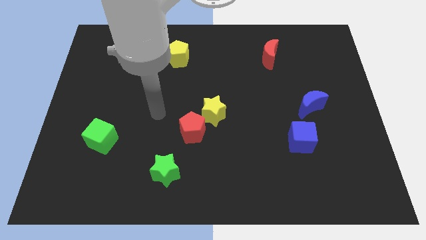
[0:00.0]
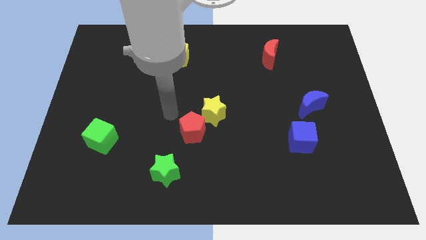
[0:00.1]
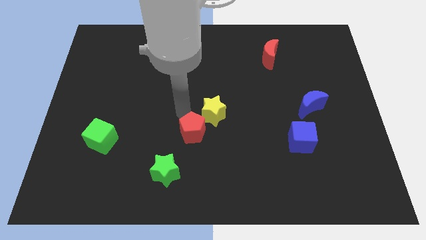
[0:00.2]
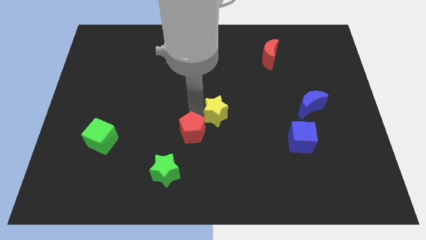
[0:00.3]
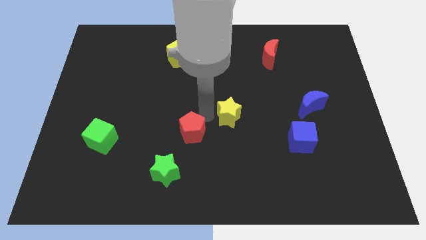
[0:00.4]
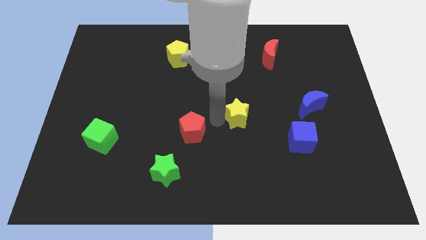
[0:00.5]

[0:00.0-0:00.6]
move the red pentagon away from the yellow star

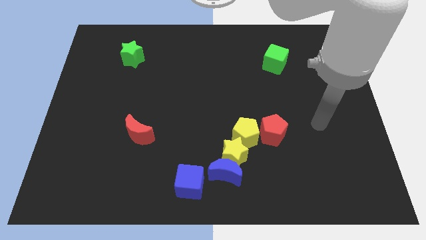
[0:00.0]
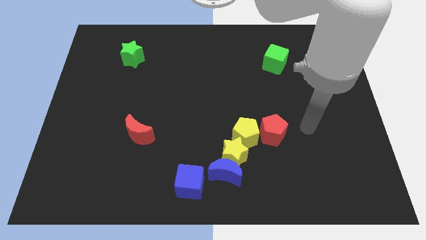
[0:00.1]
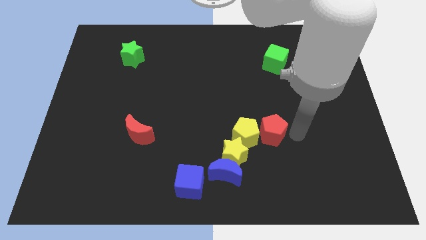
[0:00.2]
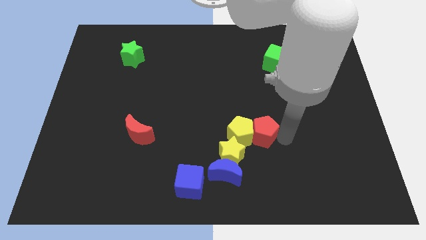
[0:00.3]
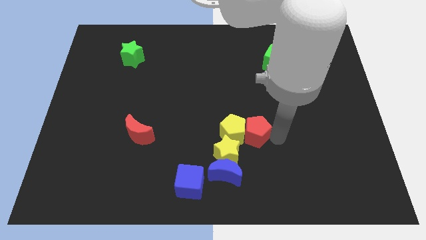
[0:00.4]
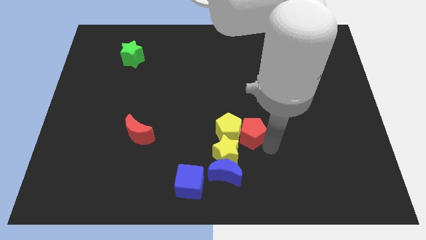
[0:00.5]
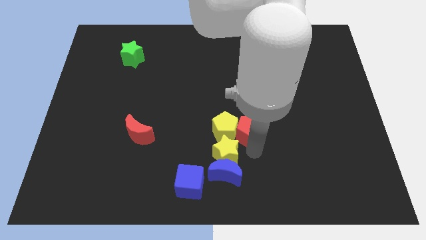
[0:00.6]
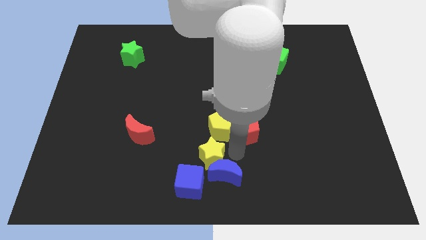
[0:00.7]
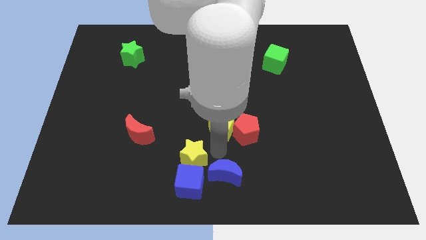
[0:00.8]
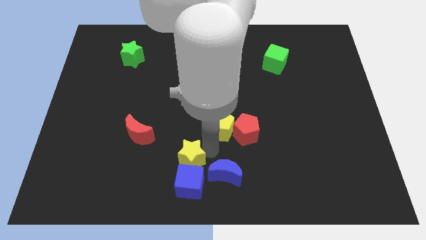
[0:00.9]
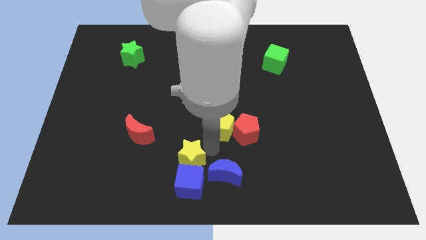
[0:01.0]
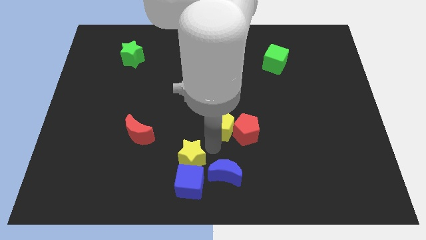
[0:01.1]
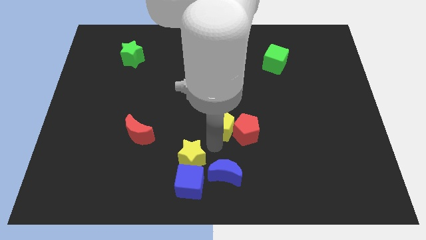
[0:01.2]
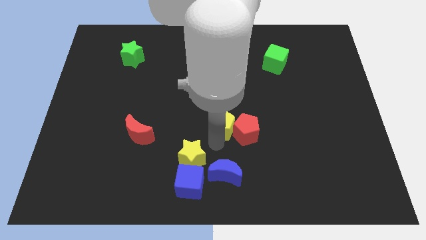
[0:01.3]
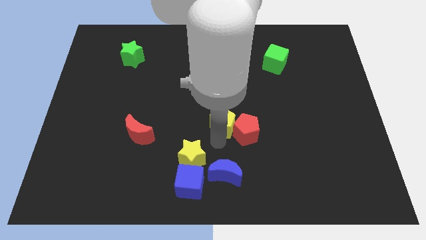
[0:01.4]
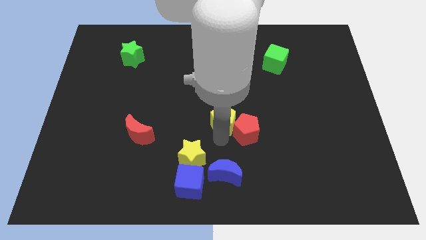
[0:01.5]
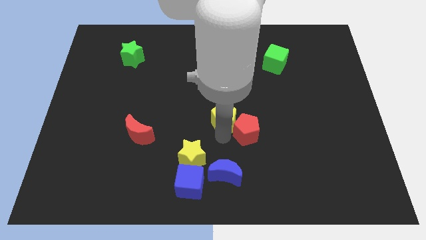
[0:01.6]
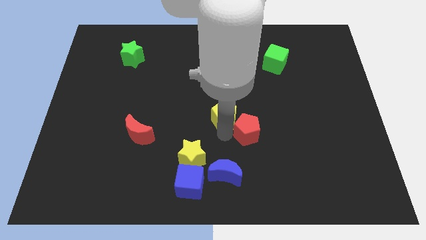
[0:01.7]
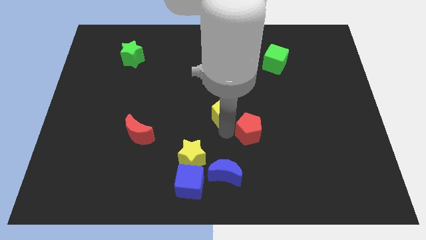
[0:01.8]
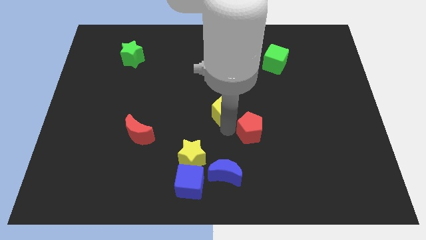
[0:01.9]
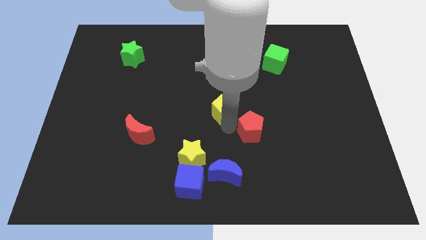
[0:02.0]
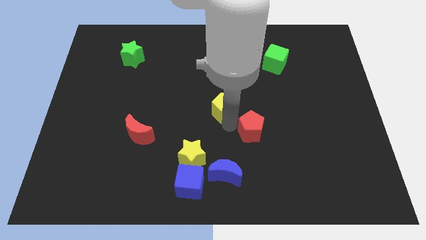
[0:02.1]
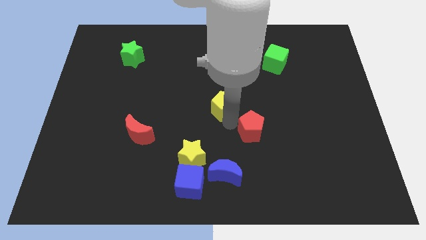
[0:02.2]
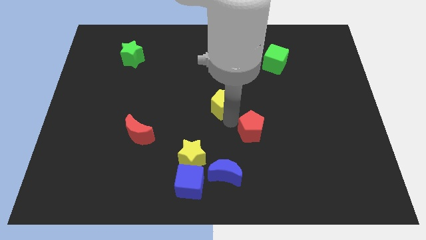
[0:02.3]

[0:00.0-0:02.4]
pull the yellow pentagon apart from the yellow star and red pentagon

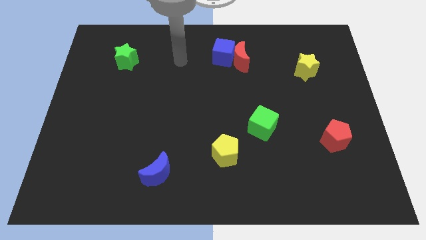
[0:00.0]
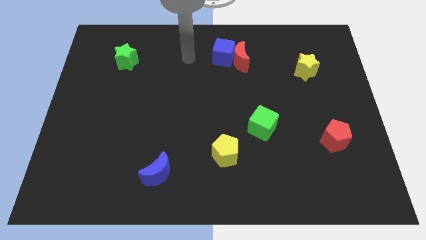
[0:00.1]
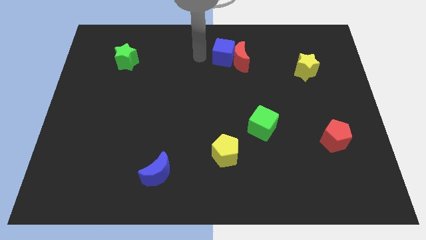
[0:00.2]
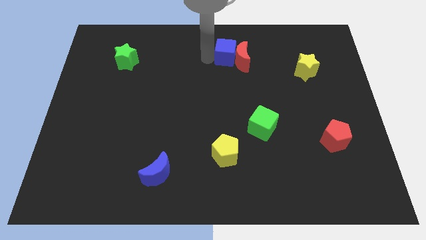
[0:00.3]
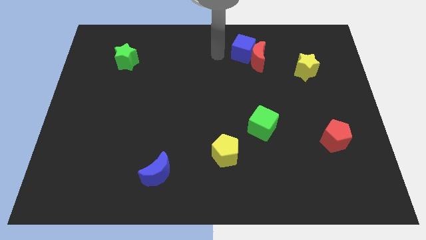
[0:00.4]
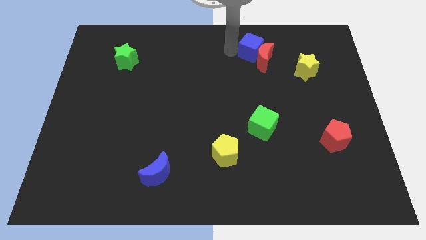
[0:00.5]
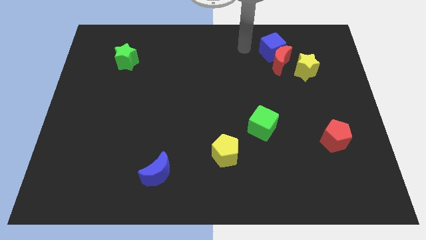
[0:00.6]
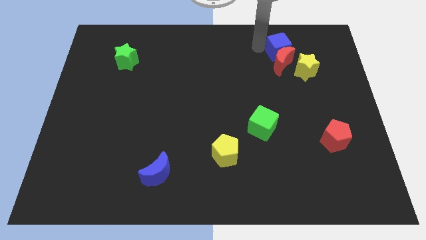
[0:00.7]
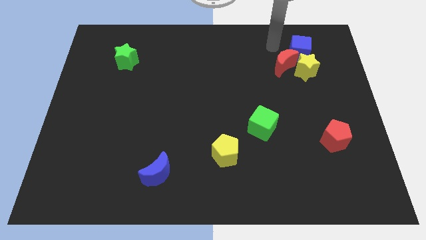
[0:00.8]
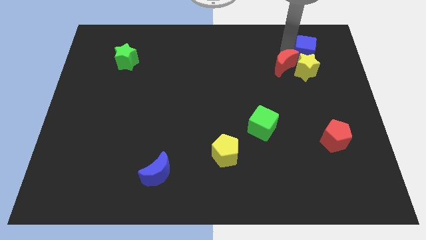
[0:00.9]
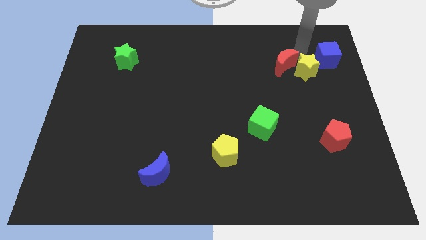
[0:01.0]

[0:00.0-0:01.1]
pull the red moon apart from the blue cube

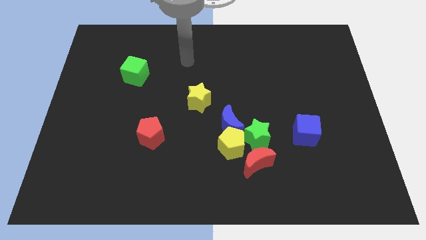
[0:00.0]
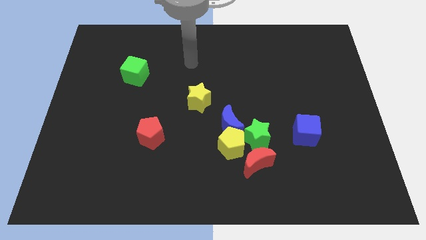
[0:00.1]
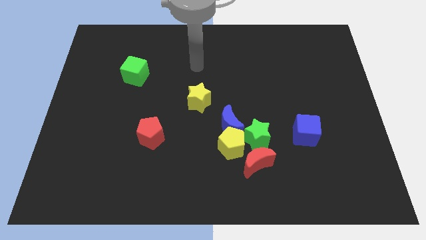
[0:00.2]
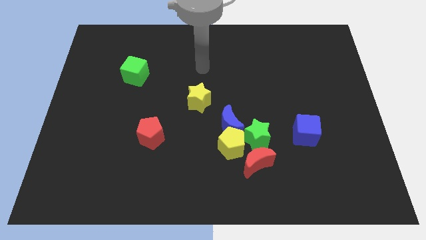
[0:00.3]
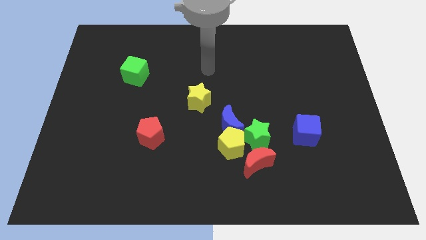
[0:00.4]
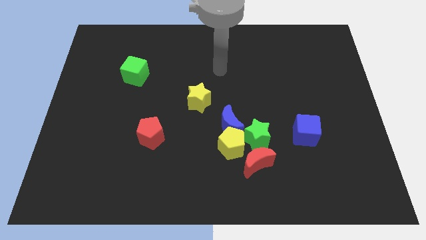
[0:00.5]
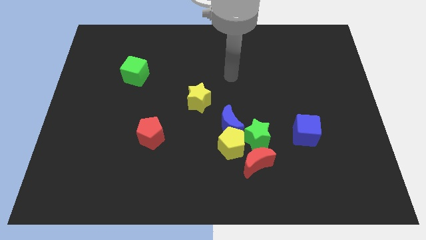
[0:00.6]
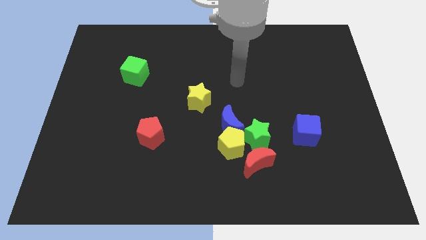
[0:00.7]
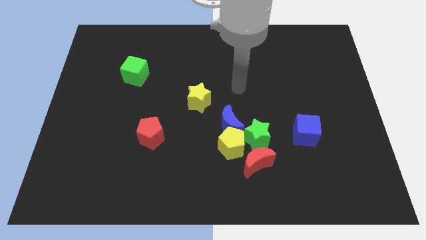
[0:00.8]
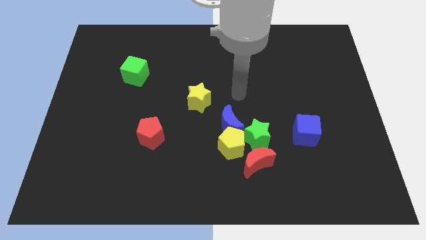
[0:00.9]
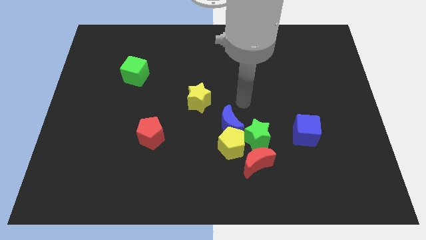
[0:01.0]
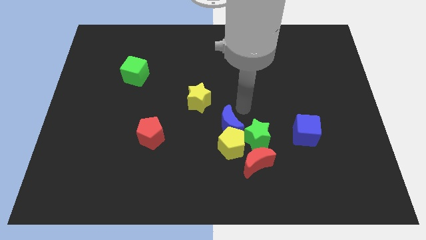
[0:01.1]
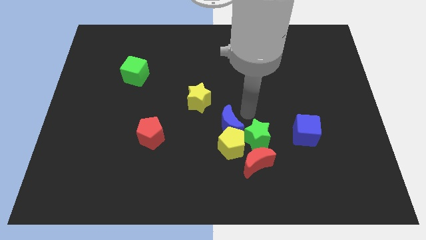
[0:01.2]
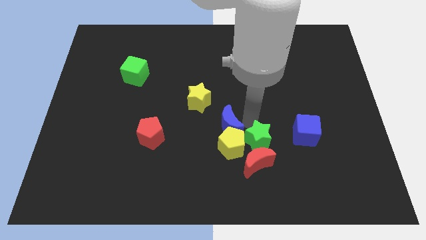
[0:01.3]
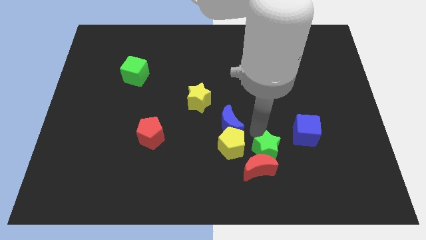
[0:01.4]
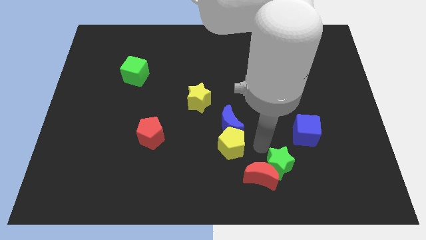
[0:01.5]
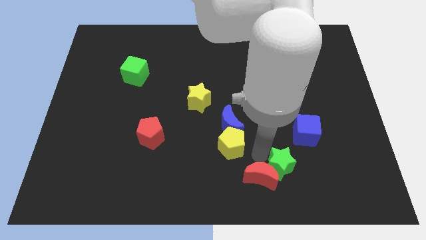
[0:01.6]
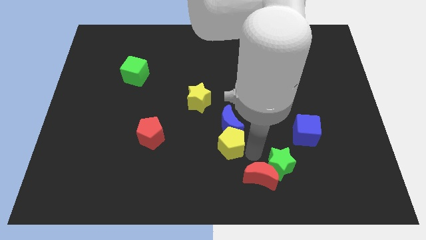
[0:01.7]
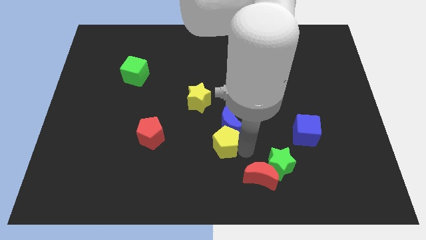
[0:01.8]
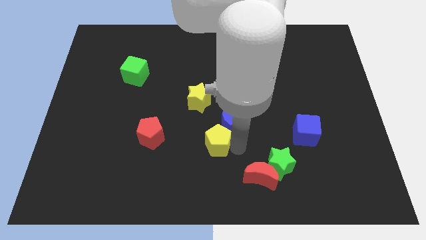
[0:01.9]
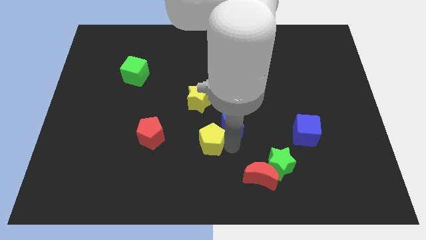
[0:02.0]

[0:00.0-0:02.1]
move the yellow pentagon away from the blue moon, green star, and red moon

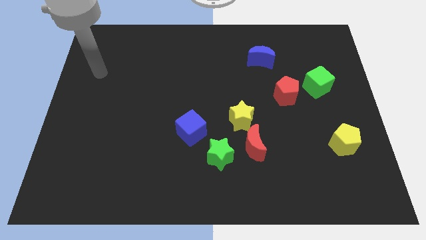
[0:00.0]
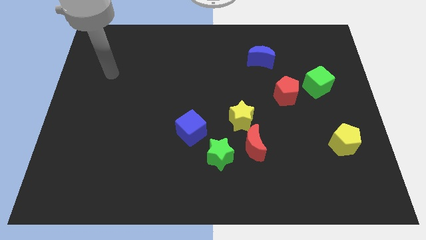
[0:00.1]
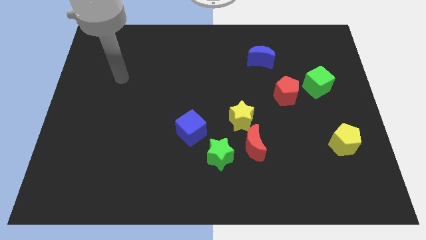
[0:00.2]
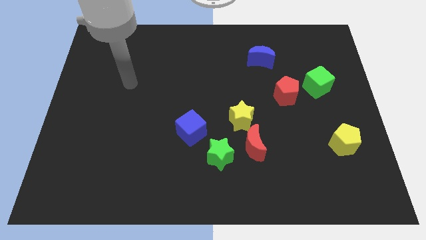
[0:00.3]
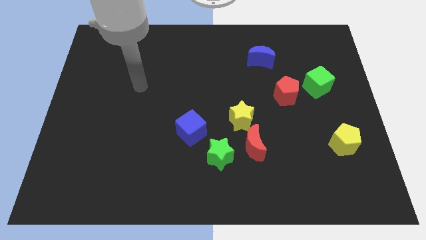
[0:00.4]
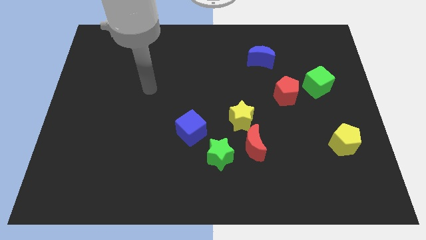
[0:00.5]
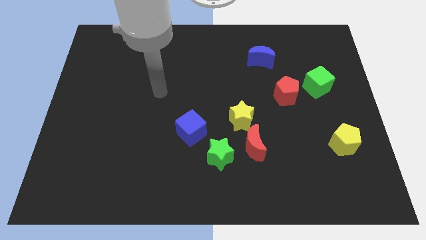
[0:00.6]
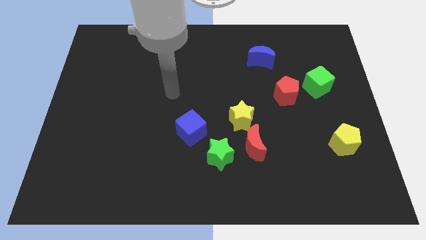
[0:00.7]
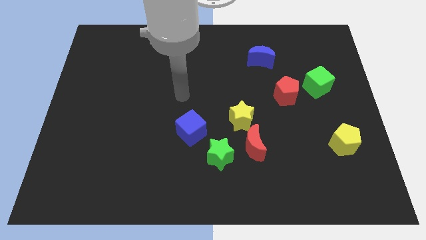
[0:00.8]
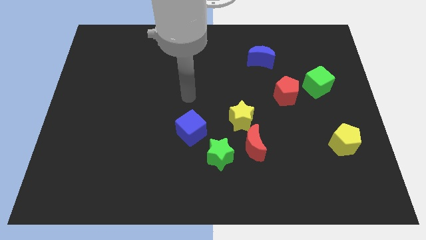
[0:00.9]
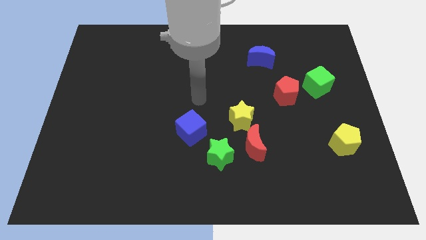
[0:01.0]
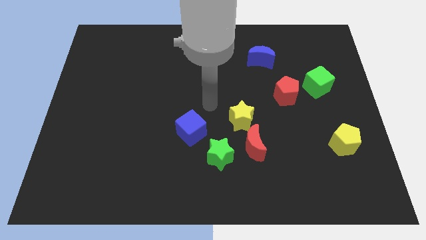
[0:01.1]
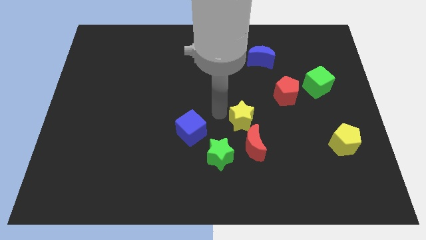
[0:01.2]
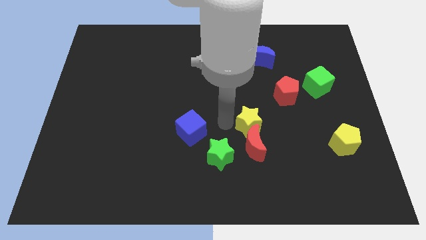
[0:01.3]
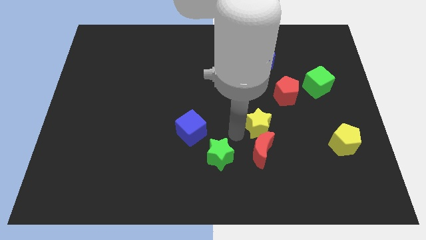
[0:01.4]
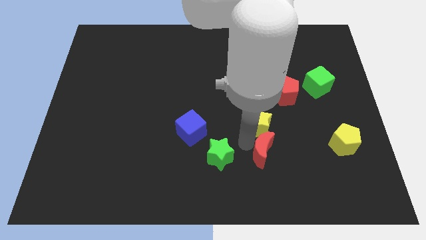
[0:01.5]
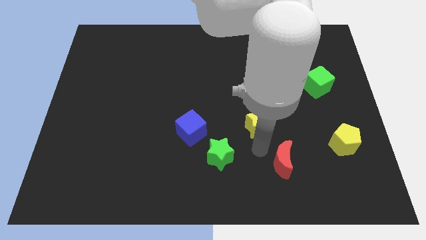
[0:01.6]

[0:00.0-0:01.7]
pull the yellow star apart from the red moon

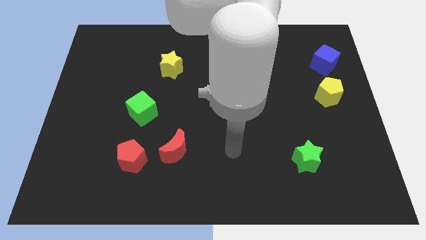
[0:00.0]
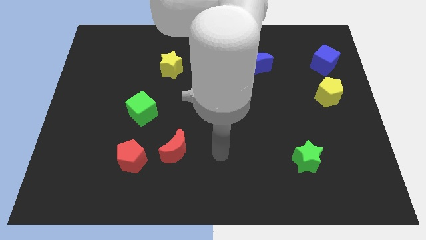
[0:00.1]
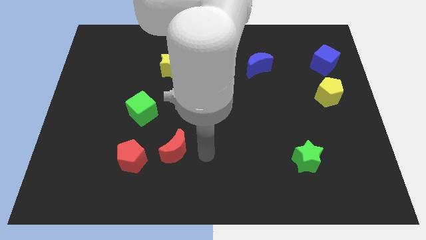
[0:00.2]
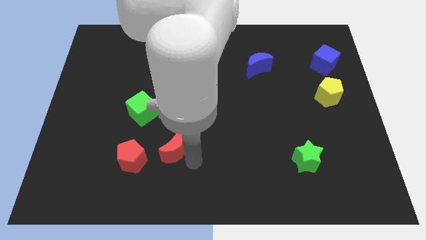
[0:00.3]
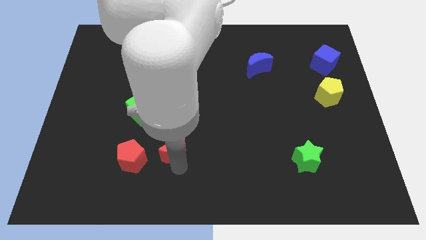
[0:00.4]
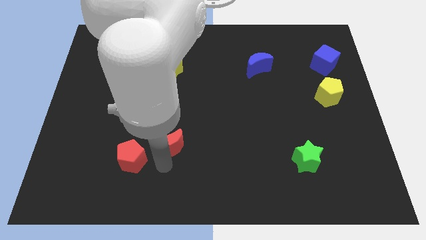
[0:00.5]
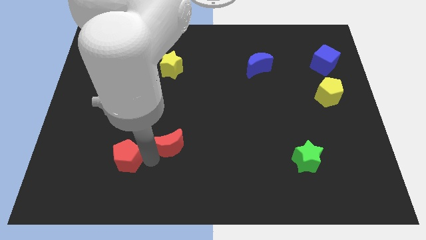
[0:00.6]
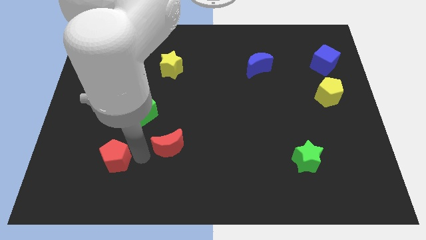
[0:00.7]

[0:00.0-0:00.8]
separate the red moon from the red pentagon

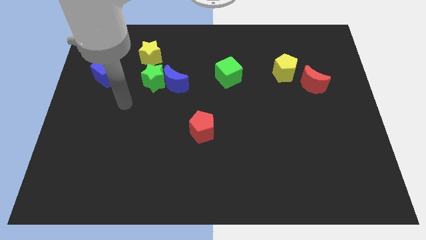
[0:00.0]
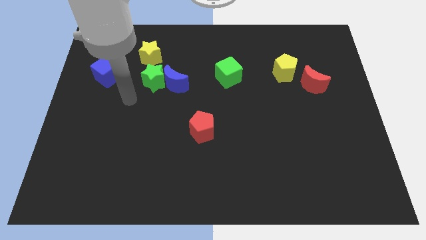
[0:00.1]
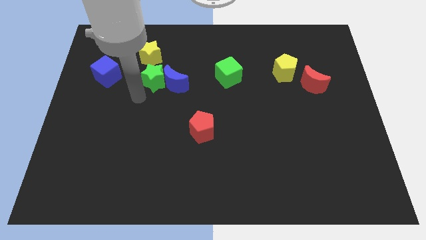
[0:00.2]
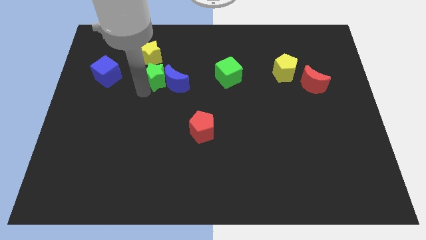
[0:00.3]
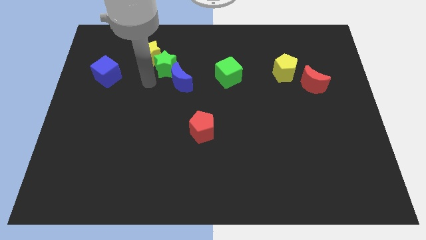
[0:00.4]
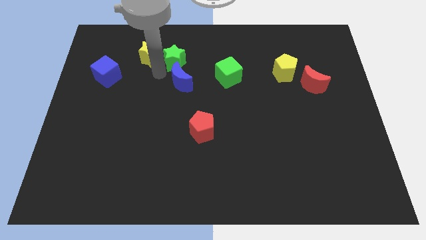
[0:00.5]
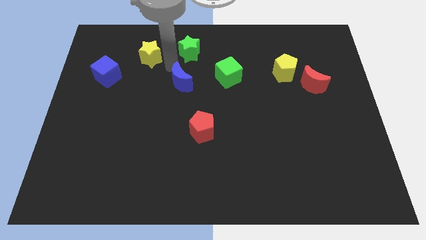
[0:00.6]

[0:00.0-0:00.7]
pull the blue moon apart from the green star
